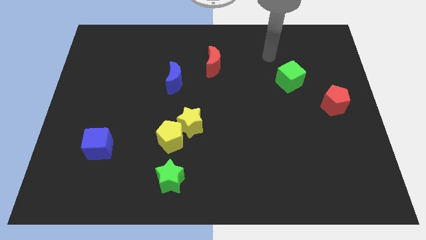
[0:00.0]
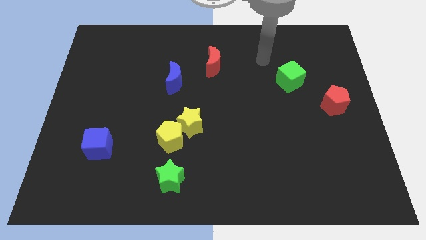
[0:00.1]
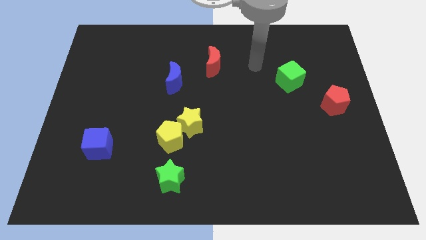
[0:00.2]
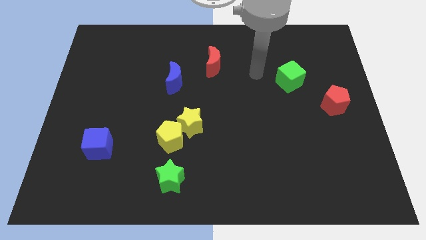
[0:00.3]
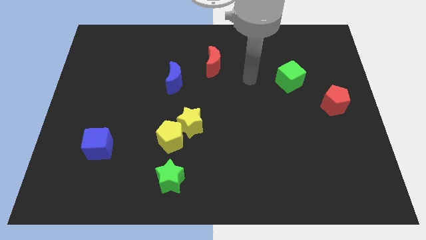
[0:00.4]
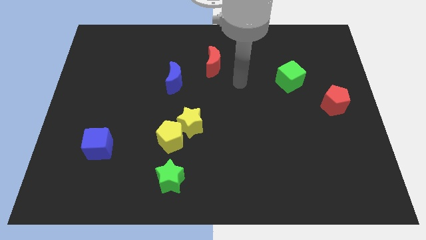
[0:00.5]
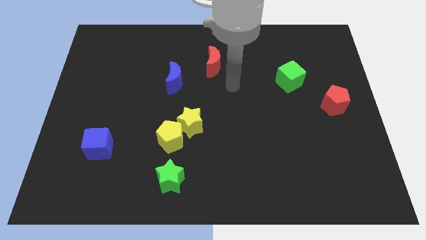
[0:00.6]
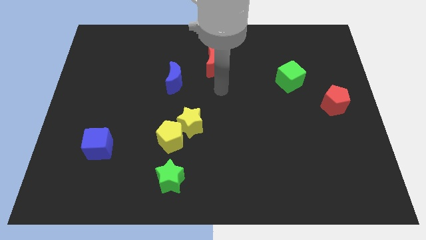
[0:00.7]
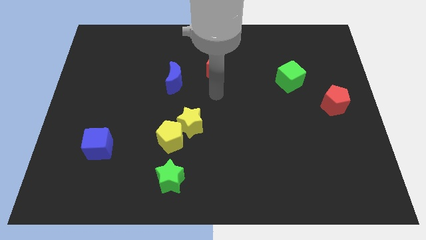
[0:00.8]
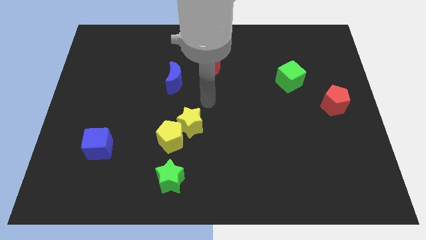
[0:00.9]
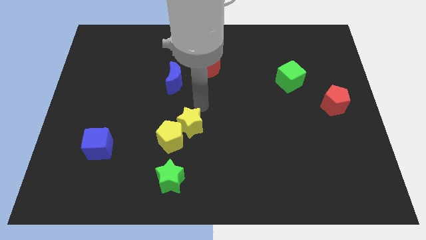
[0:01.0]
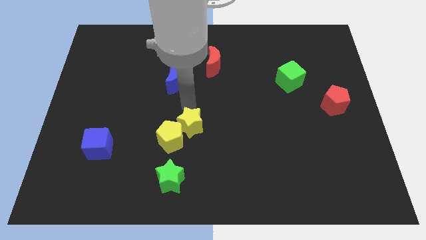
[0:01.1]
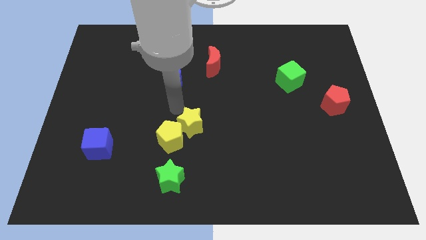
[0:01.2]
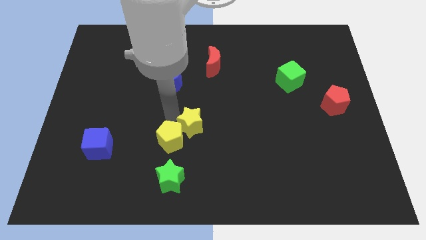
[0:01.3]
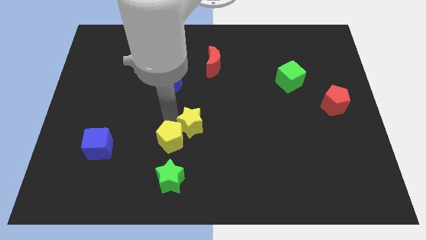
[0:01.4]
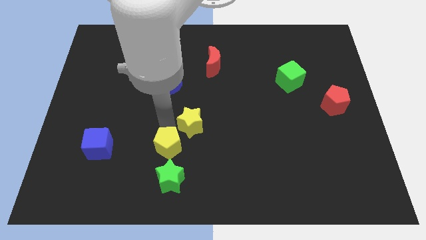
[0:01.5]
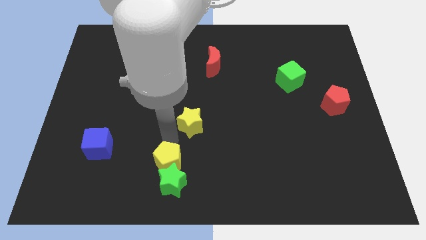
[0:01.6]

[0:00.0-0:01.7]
separate the yellow star from the yellow pentagon

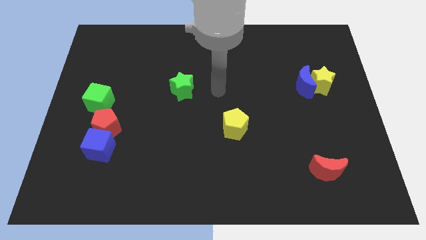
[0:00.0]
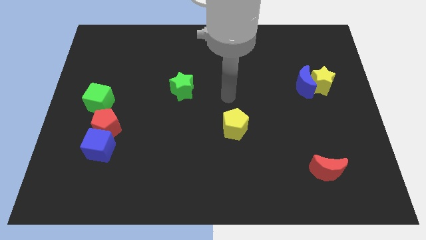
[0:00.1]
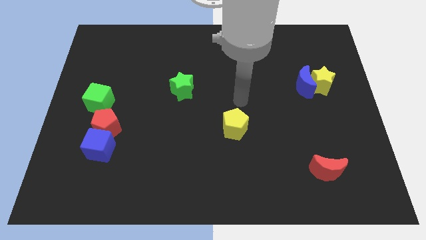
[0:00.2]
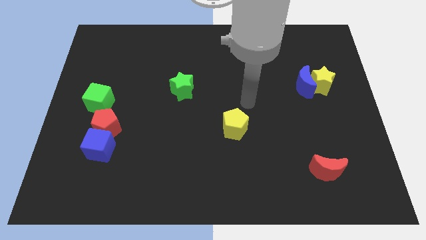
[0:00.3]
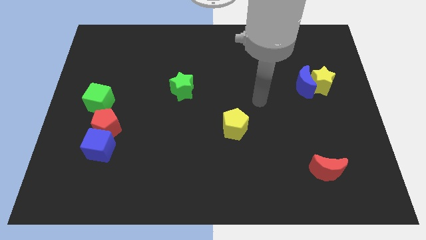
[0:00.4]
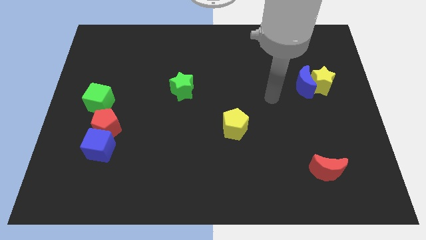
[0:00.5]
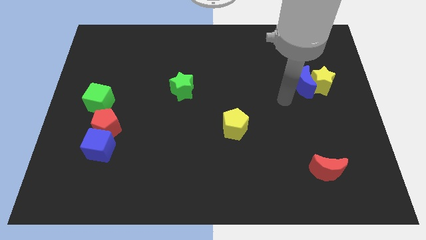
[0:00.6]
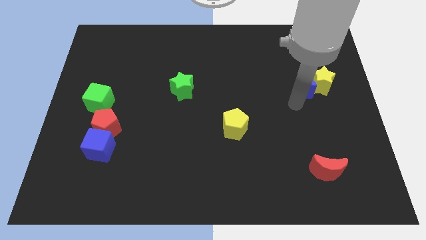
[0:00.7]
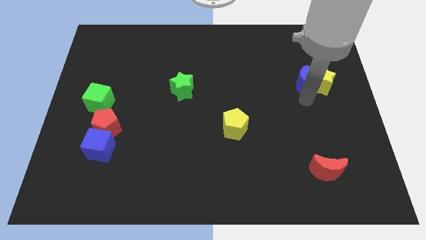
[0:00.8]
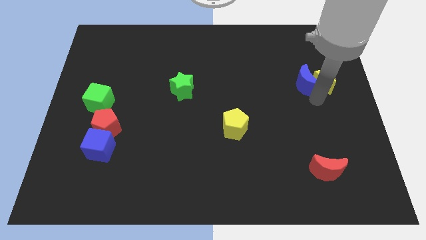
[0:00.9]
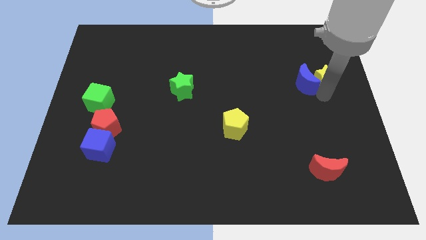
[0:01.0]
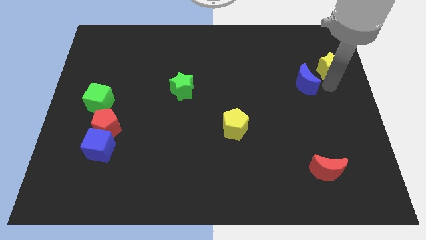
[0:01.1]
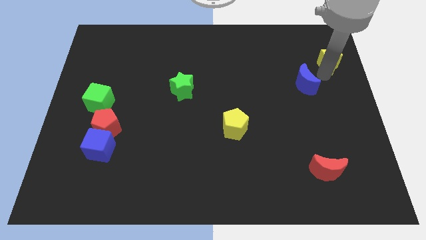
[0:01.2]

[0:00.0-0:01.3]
pull the blue moon apart from the yellow star

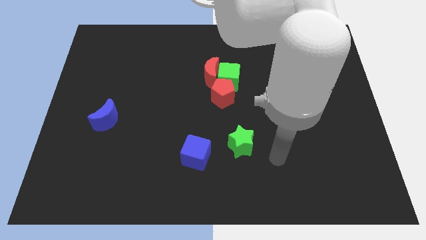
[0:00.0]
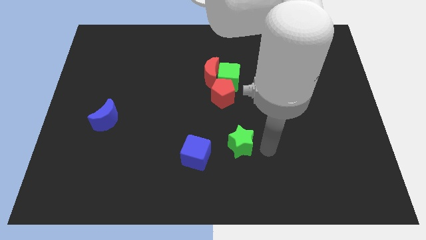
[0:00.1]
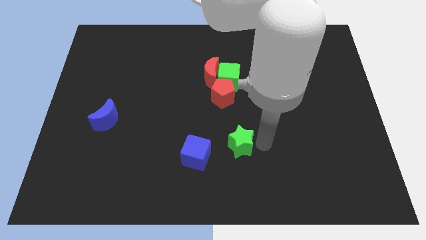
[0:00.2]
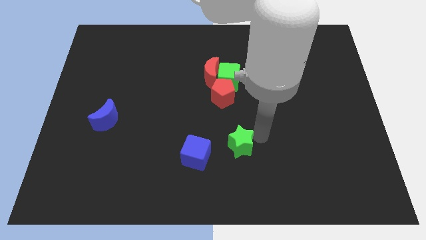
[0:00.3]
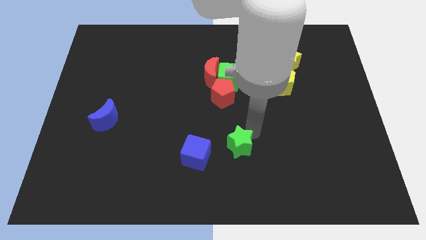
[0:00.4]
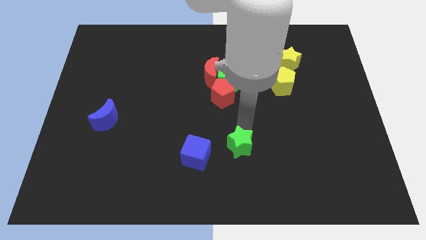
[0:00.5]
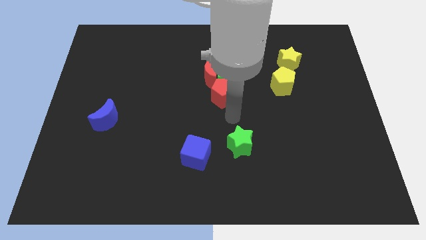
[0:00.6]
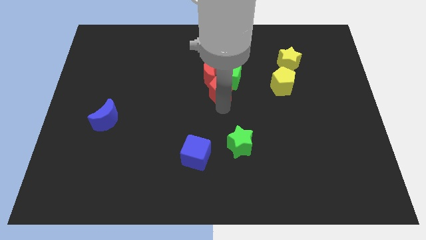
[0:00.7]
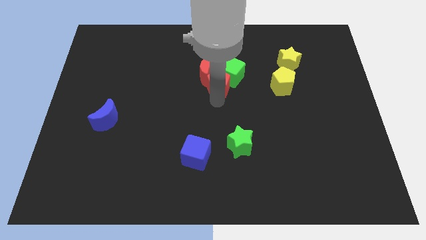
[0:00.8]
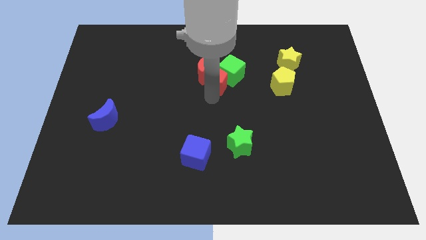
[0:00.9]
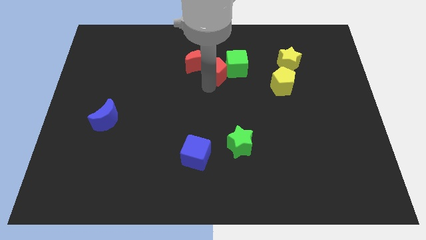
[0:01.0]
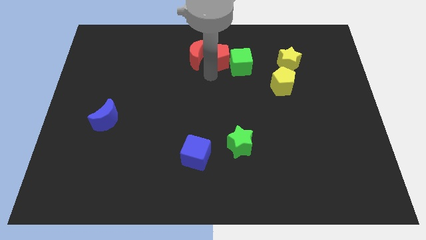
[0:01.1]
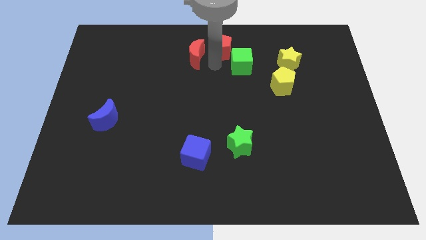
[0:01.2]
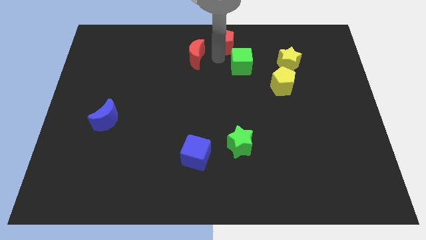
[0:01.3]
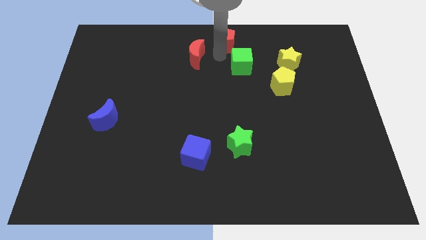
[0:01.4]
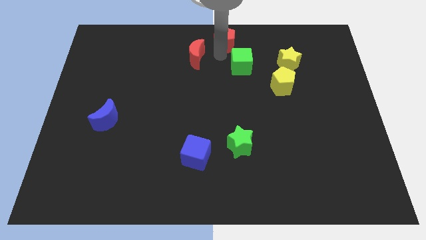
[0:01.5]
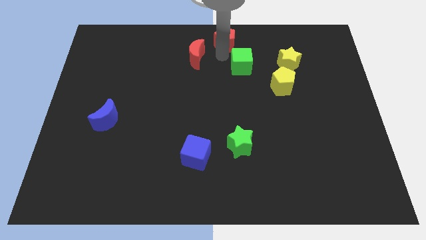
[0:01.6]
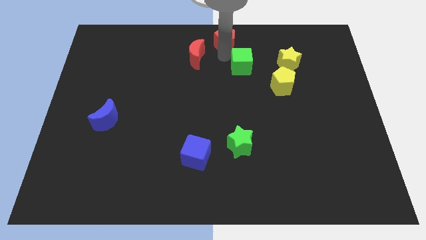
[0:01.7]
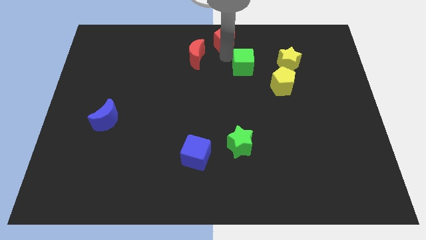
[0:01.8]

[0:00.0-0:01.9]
separate the green cube from the red moon and red pentagon

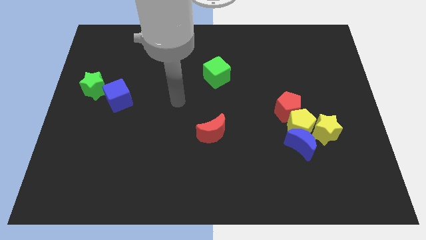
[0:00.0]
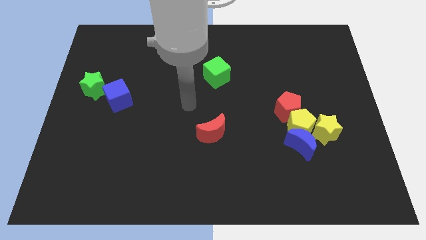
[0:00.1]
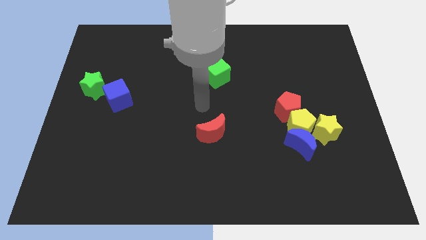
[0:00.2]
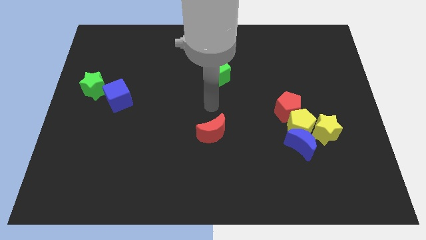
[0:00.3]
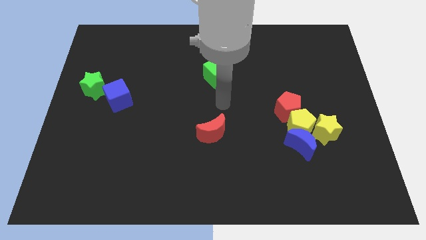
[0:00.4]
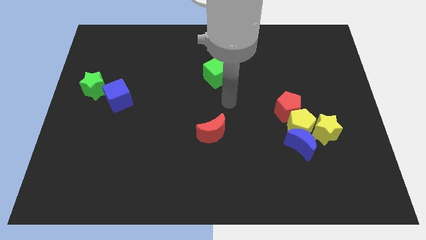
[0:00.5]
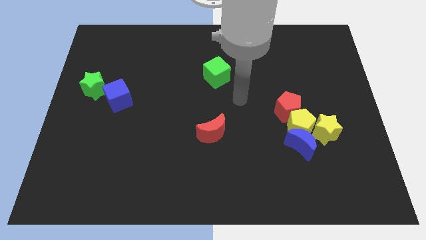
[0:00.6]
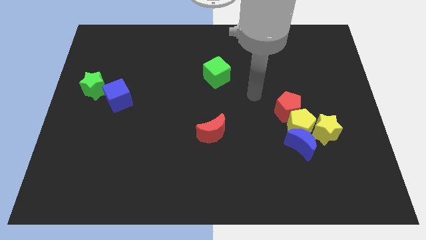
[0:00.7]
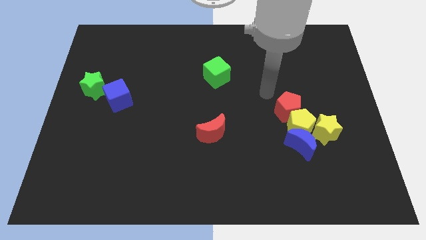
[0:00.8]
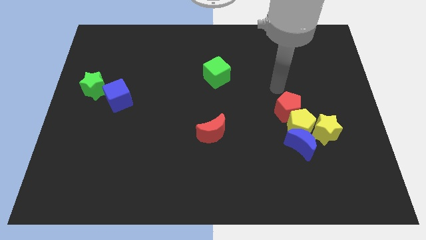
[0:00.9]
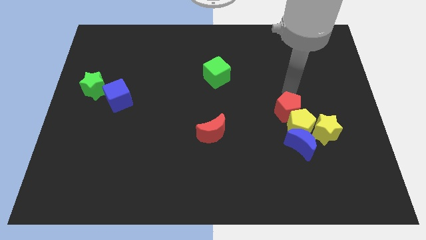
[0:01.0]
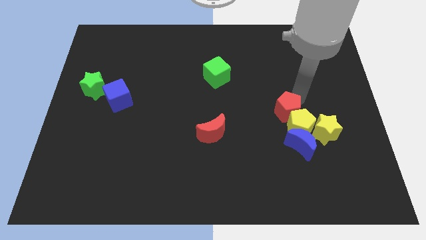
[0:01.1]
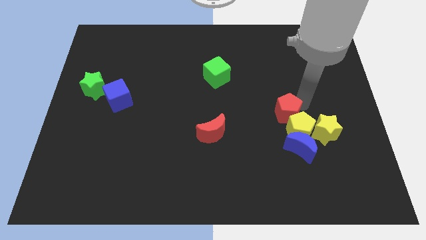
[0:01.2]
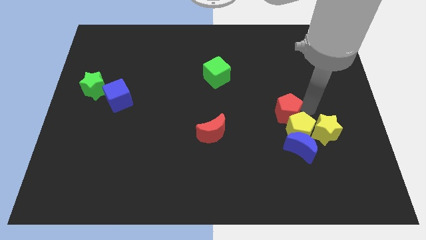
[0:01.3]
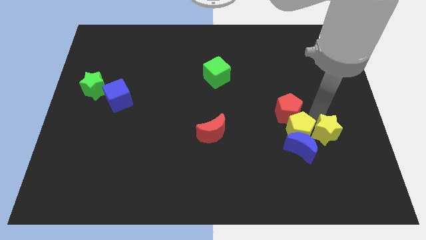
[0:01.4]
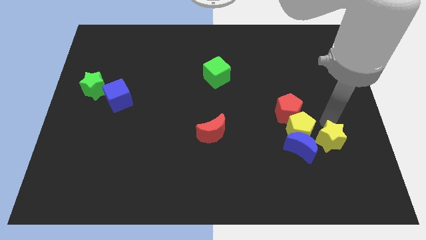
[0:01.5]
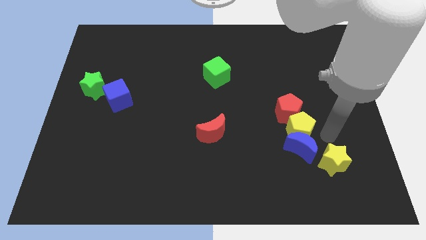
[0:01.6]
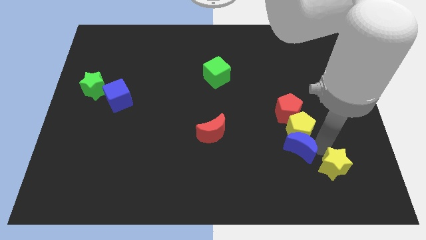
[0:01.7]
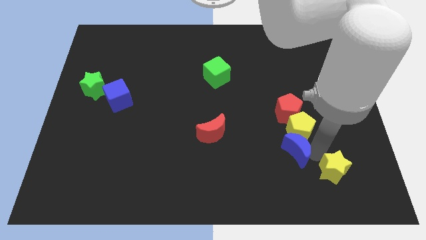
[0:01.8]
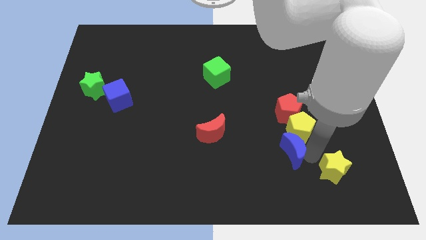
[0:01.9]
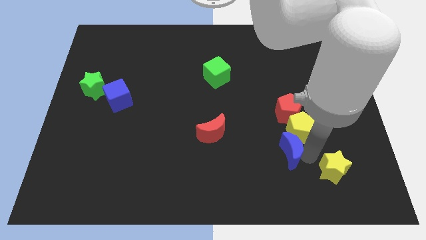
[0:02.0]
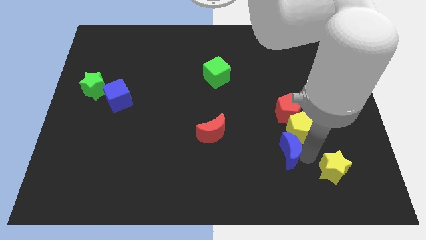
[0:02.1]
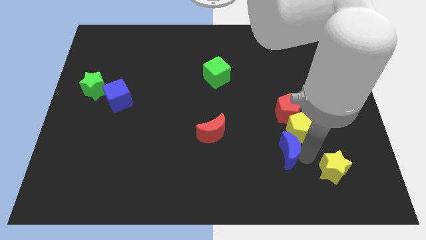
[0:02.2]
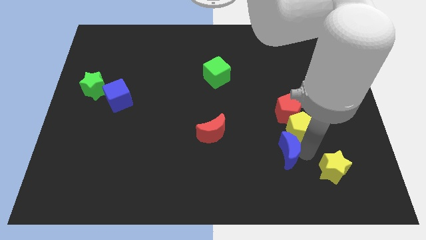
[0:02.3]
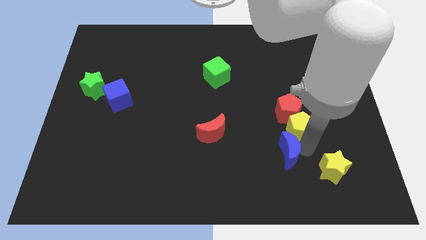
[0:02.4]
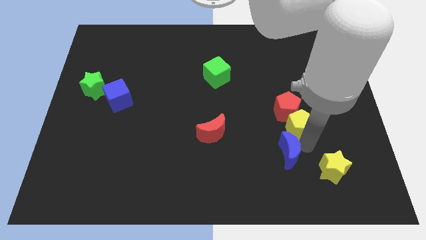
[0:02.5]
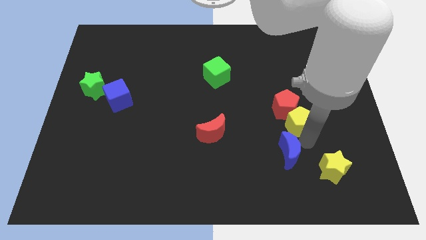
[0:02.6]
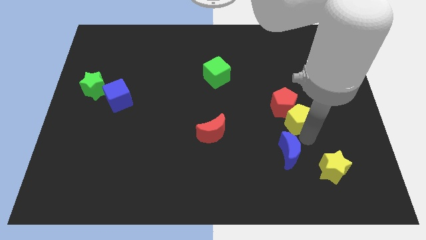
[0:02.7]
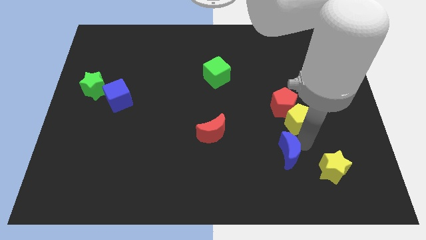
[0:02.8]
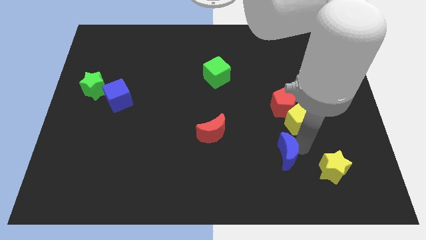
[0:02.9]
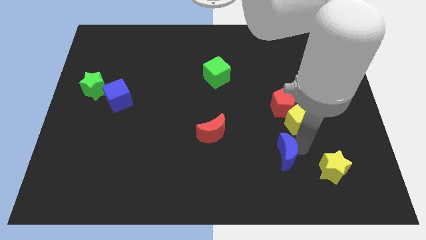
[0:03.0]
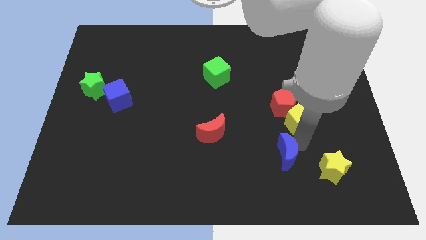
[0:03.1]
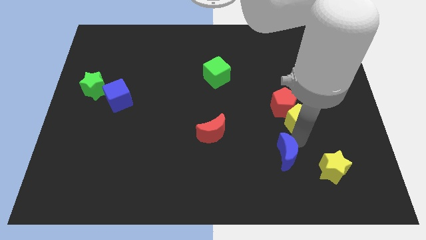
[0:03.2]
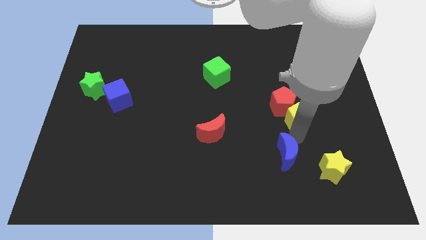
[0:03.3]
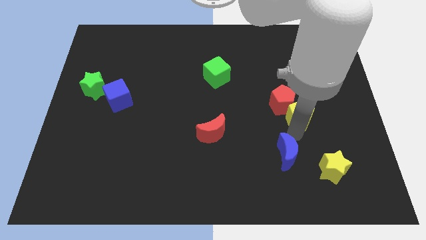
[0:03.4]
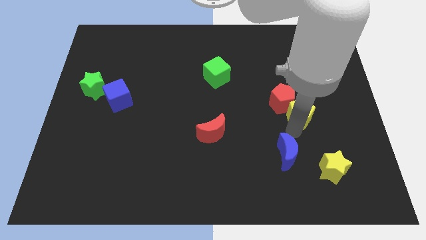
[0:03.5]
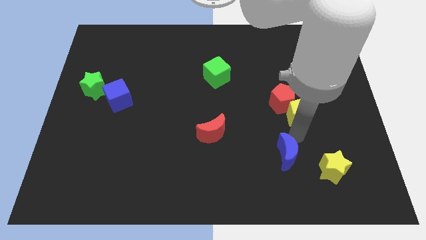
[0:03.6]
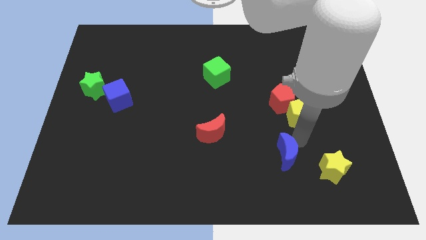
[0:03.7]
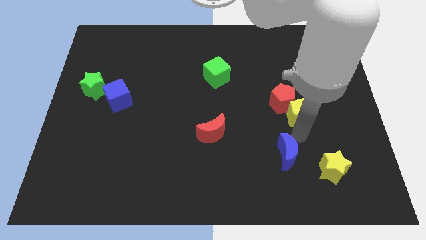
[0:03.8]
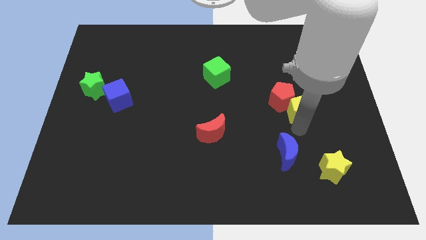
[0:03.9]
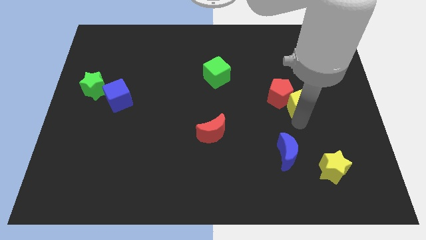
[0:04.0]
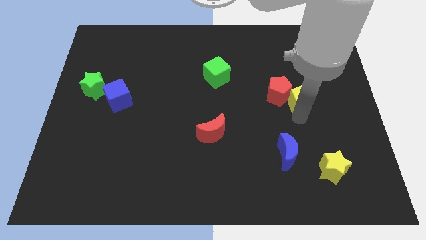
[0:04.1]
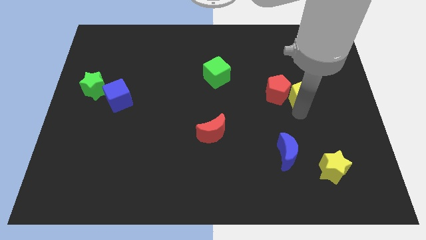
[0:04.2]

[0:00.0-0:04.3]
move the yellow pentagon away from the group of blocks

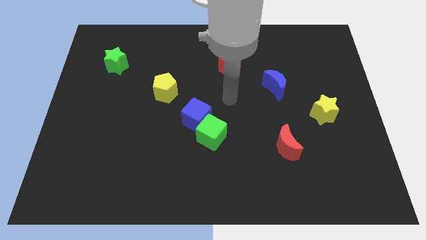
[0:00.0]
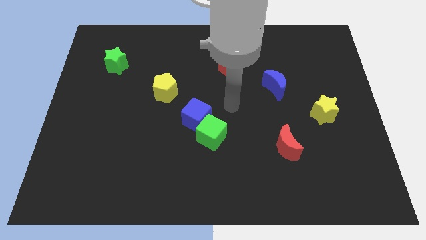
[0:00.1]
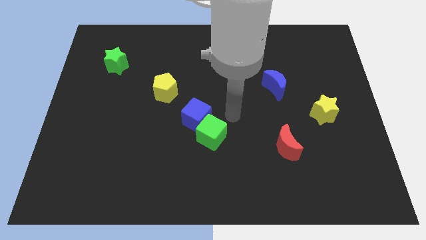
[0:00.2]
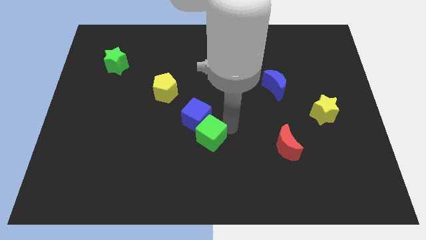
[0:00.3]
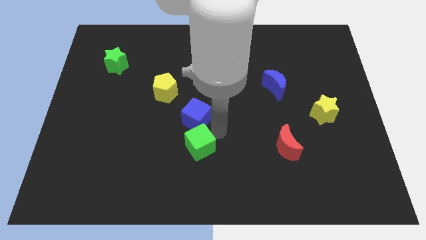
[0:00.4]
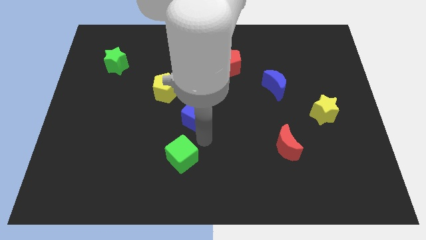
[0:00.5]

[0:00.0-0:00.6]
move the blue cube away from the green cube
